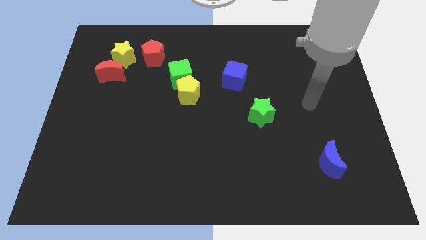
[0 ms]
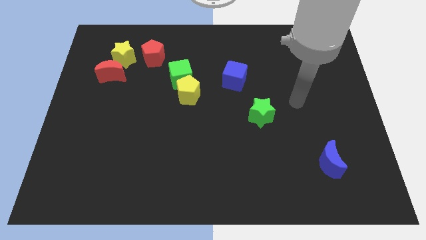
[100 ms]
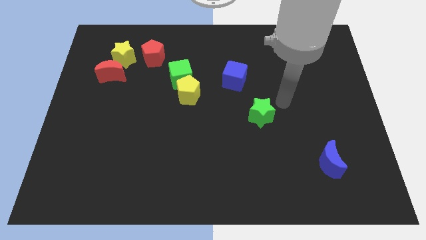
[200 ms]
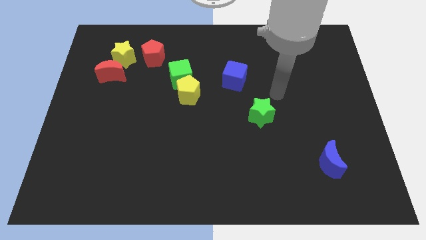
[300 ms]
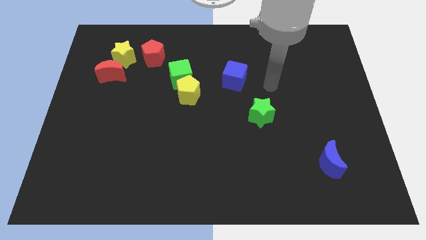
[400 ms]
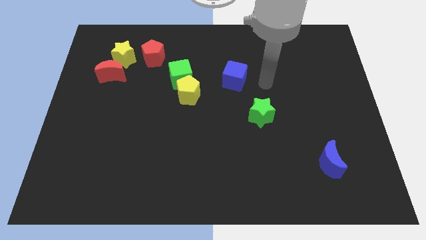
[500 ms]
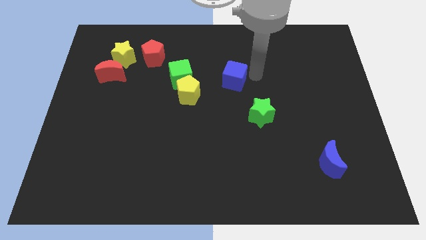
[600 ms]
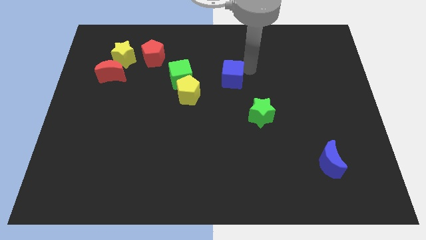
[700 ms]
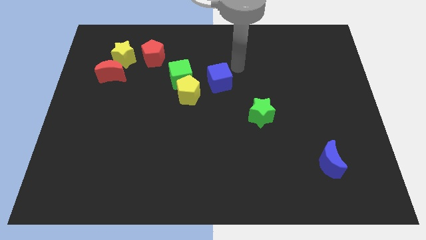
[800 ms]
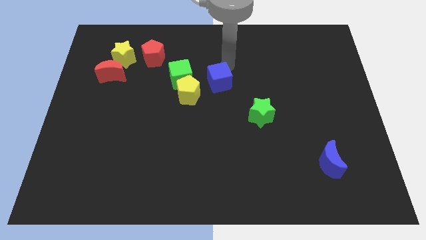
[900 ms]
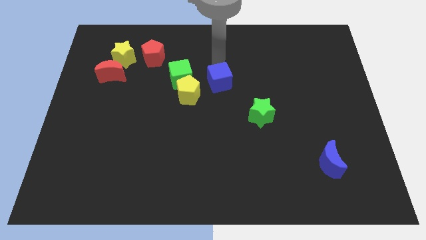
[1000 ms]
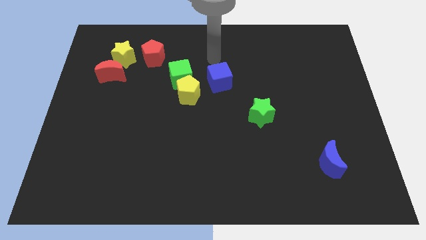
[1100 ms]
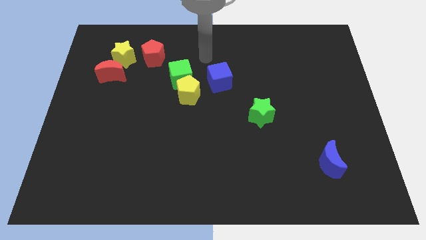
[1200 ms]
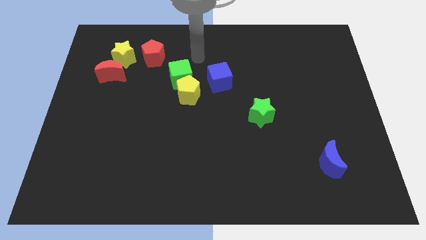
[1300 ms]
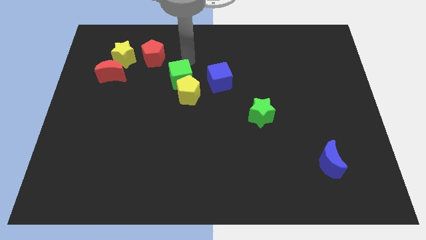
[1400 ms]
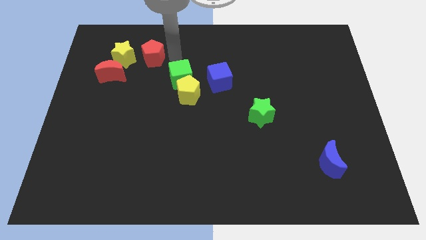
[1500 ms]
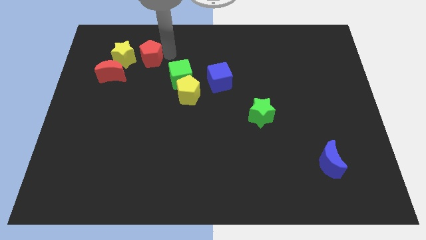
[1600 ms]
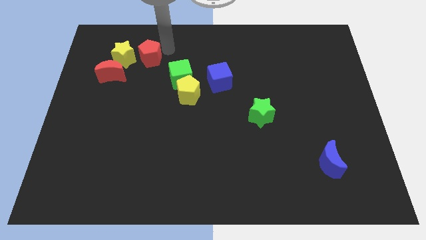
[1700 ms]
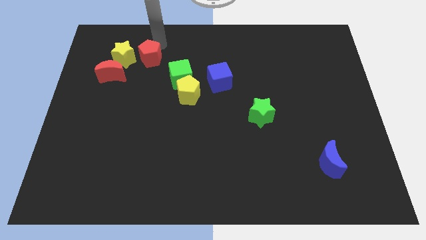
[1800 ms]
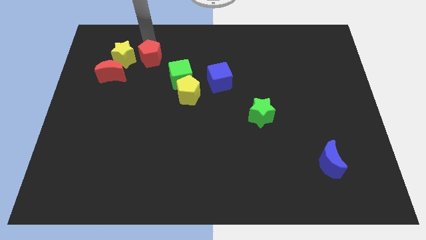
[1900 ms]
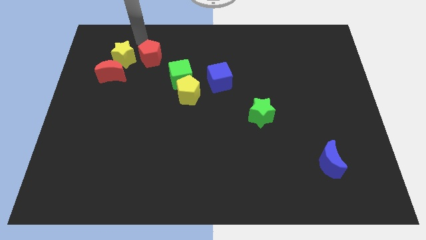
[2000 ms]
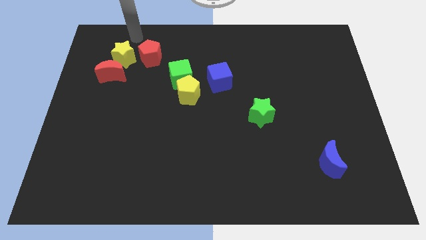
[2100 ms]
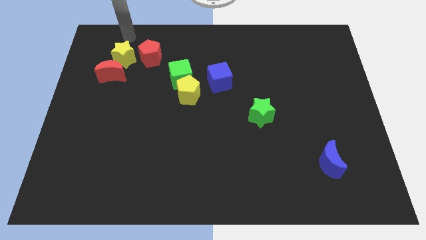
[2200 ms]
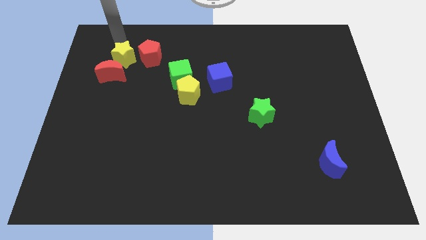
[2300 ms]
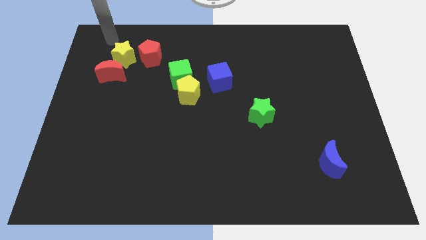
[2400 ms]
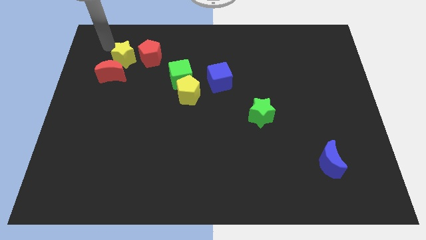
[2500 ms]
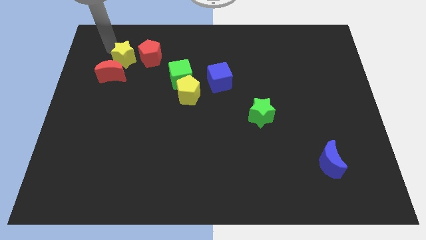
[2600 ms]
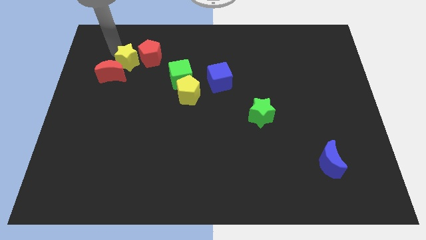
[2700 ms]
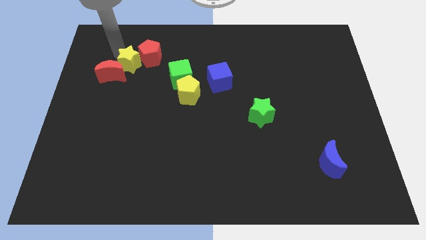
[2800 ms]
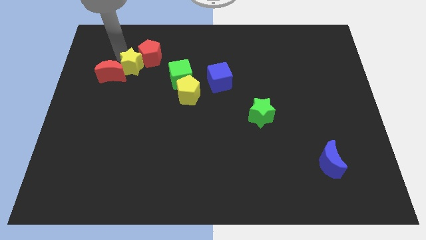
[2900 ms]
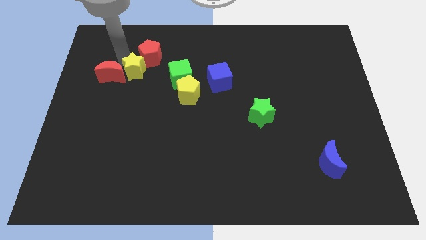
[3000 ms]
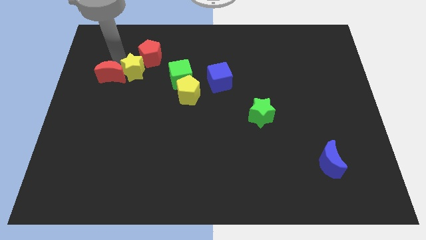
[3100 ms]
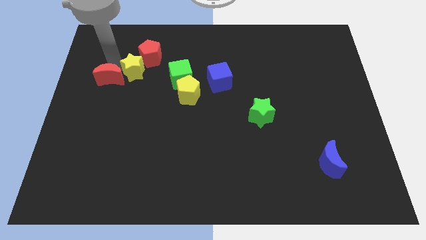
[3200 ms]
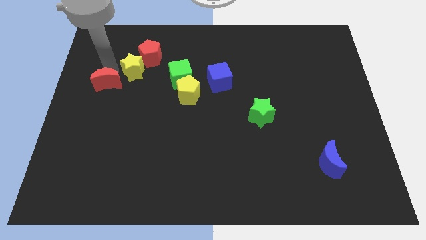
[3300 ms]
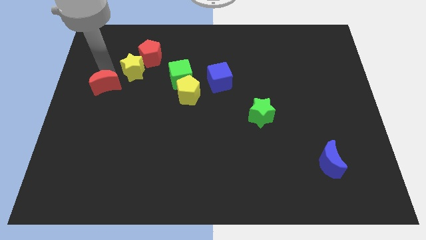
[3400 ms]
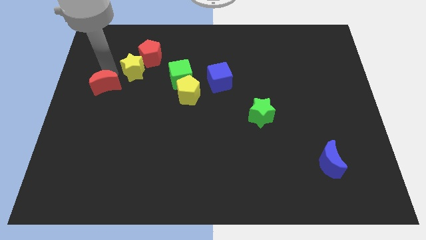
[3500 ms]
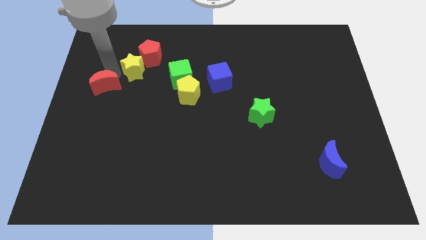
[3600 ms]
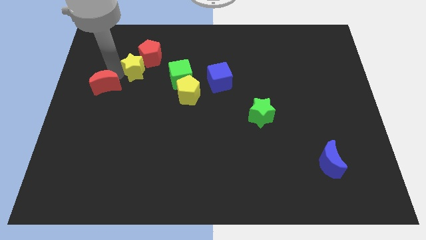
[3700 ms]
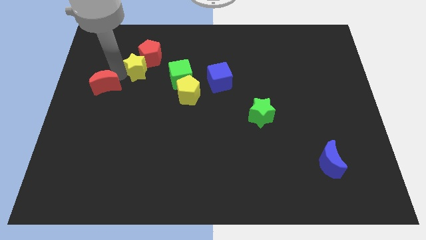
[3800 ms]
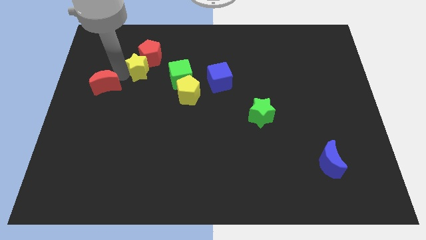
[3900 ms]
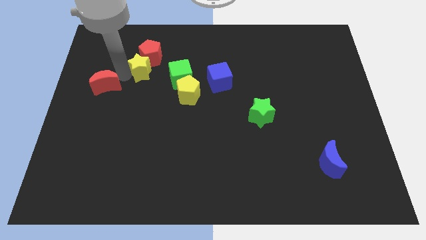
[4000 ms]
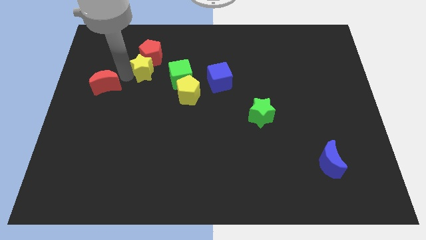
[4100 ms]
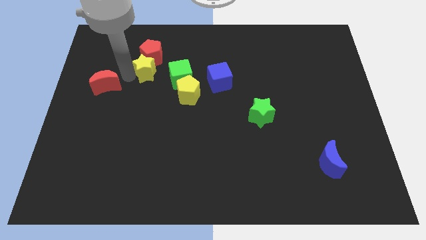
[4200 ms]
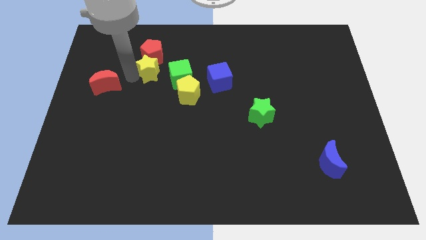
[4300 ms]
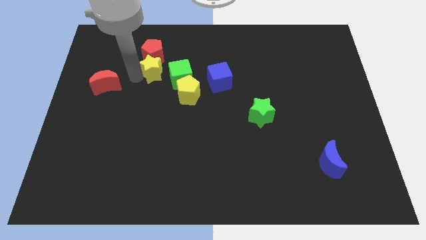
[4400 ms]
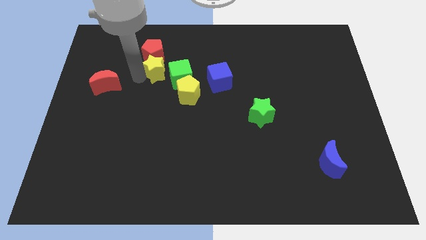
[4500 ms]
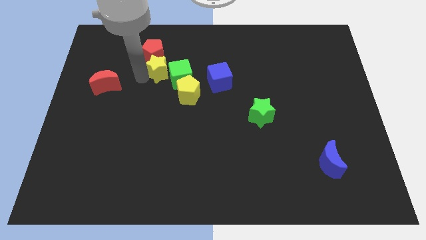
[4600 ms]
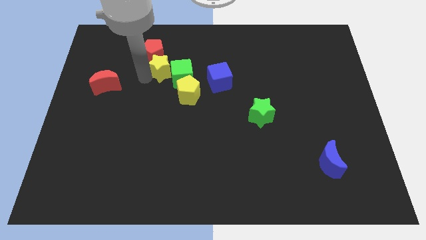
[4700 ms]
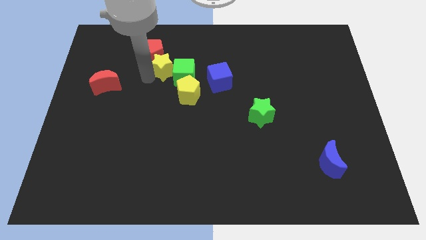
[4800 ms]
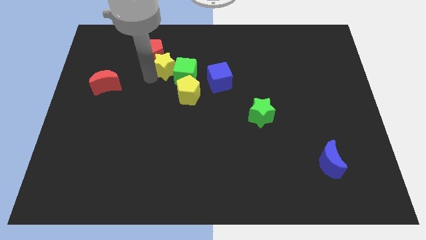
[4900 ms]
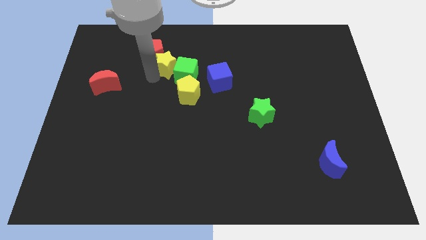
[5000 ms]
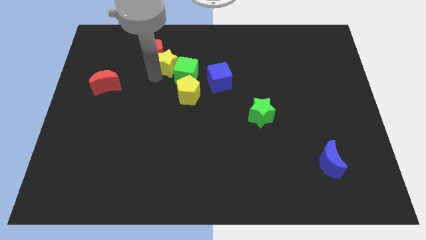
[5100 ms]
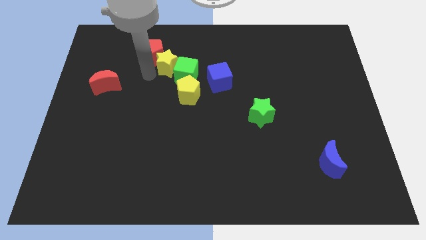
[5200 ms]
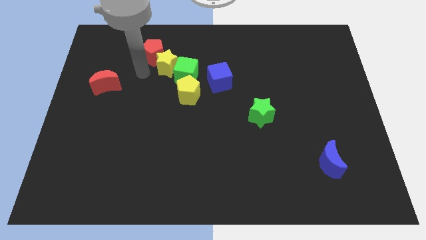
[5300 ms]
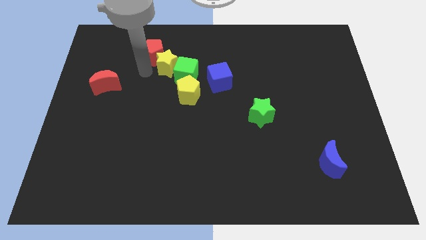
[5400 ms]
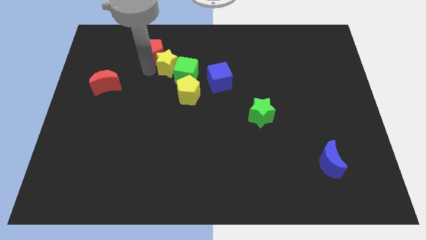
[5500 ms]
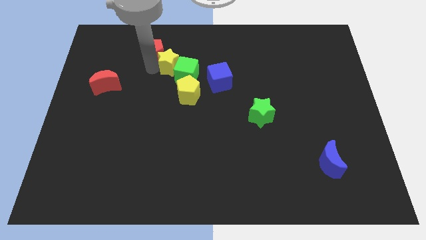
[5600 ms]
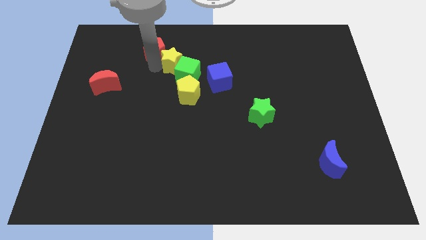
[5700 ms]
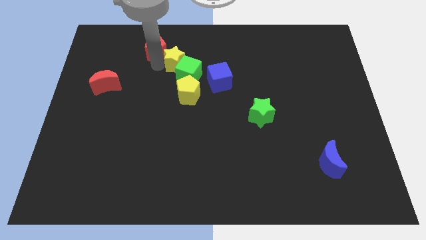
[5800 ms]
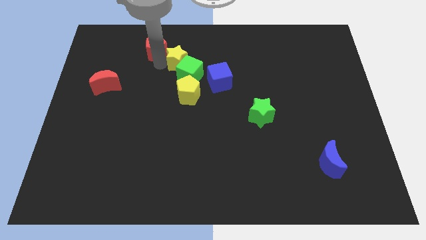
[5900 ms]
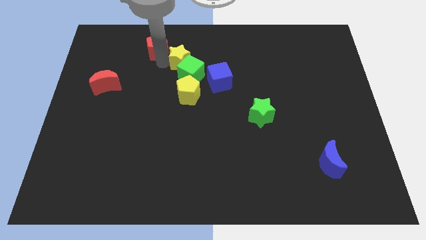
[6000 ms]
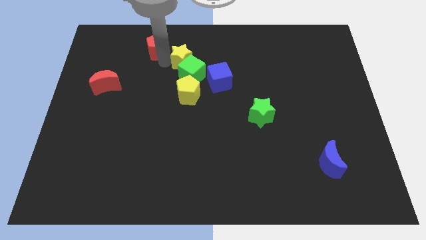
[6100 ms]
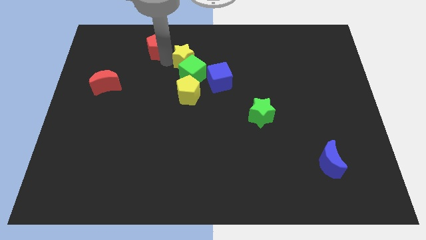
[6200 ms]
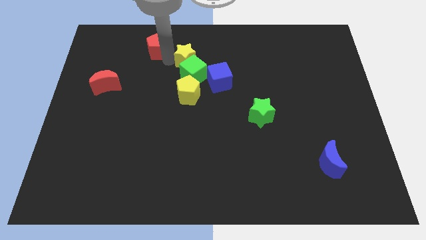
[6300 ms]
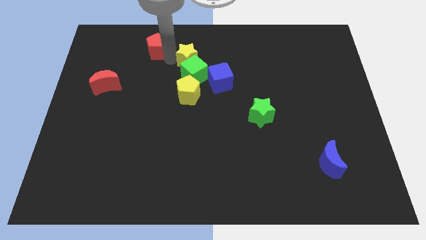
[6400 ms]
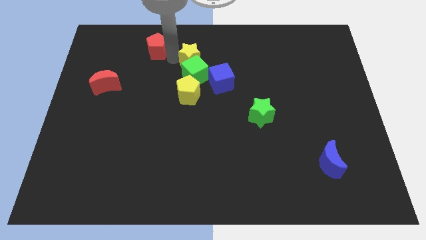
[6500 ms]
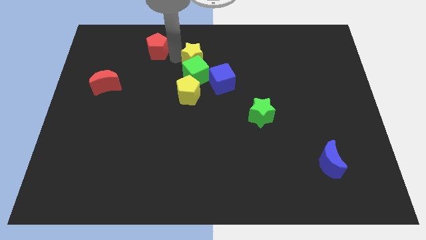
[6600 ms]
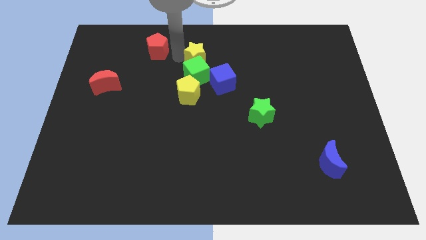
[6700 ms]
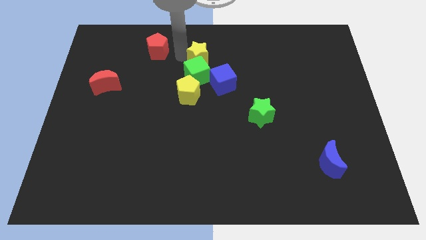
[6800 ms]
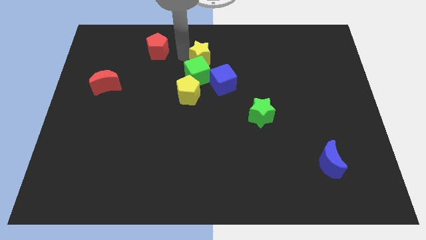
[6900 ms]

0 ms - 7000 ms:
slide the yellow star right

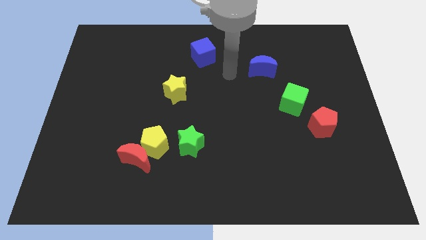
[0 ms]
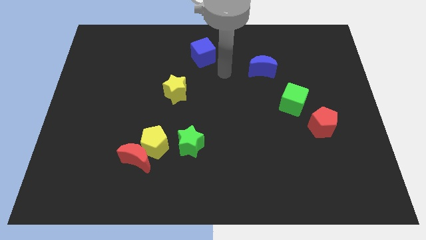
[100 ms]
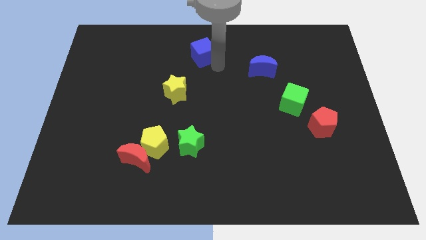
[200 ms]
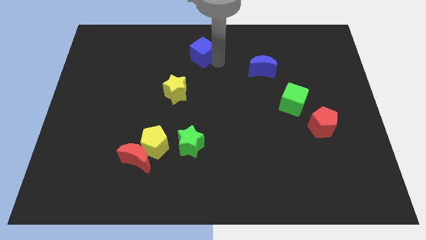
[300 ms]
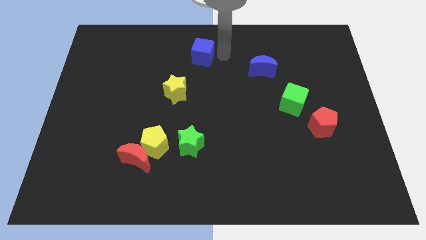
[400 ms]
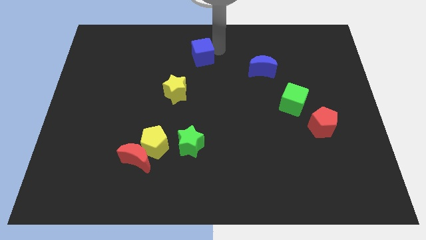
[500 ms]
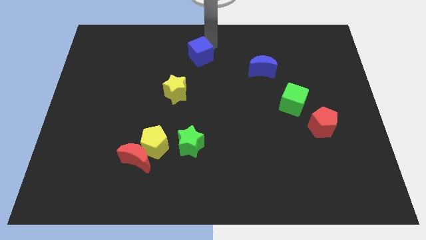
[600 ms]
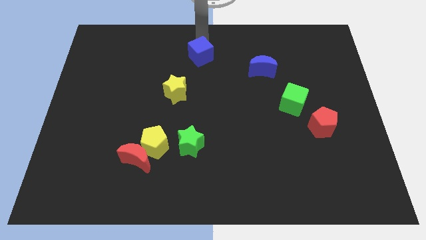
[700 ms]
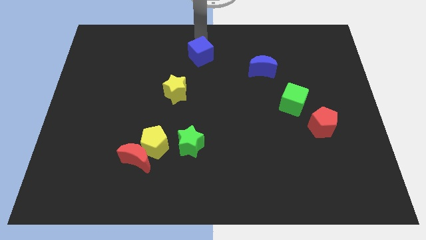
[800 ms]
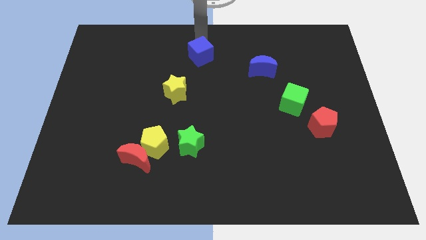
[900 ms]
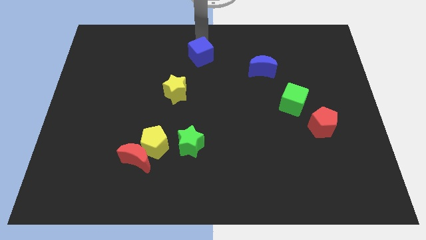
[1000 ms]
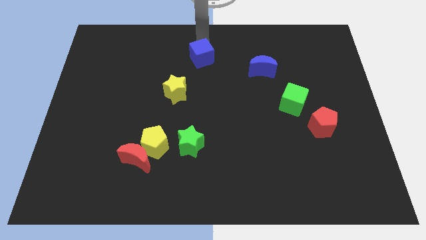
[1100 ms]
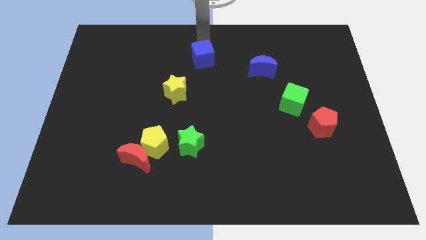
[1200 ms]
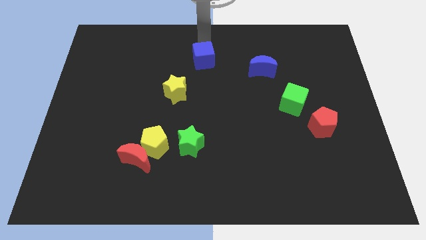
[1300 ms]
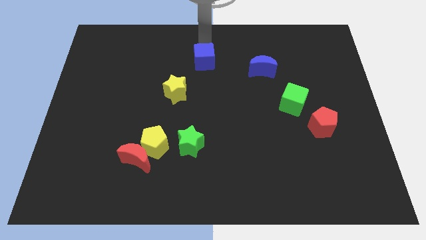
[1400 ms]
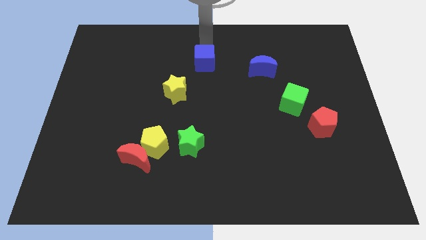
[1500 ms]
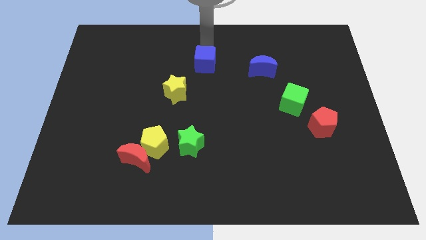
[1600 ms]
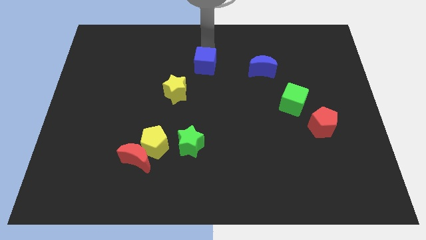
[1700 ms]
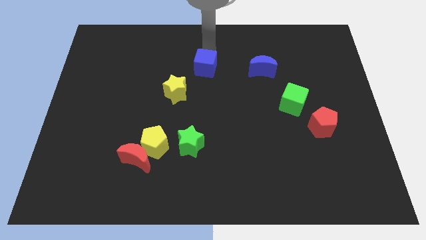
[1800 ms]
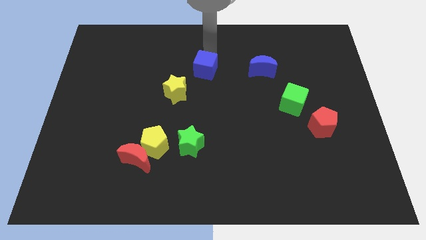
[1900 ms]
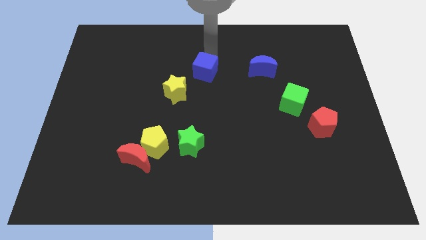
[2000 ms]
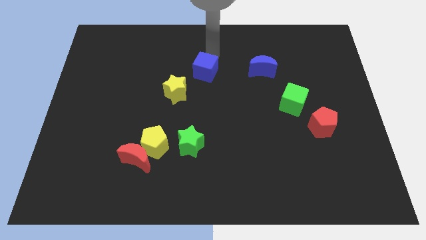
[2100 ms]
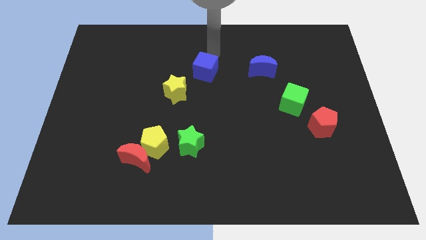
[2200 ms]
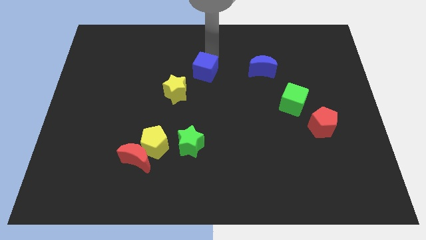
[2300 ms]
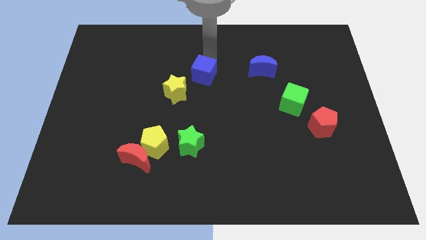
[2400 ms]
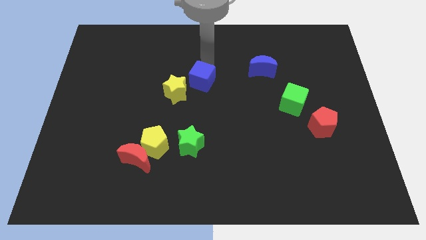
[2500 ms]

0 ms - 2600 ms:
slide the blue cube a bit downwards
